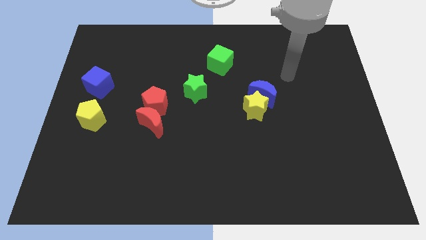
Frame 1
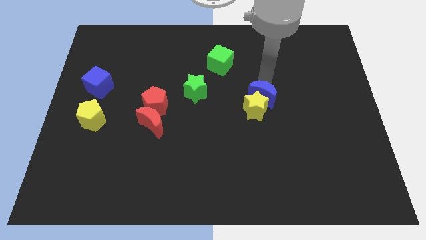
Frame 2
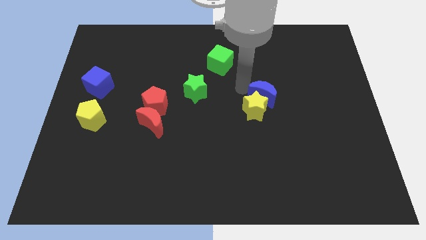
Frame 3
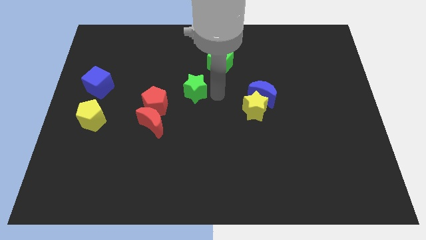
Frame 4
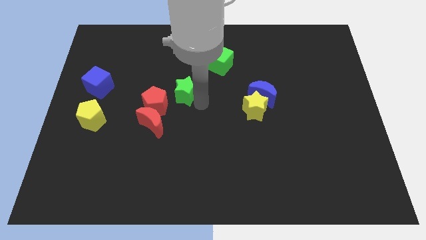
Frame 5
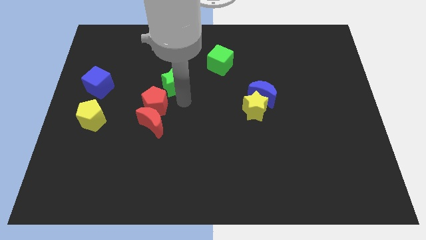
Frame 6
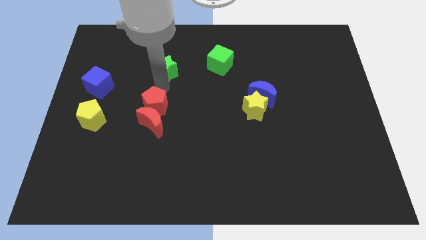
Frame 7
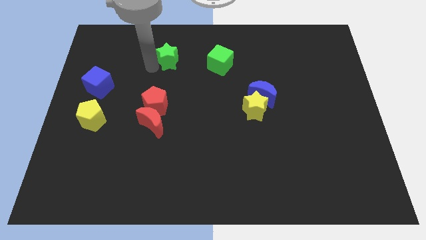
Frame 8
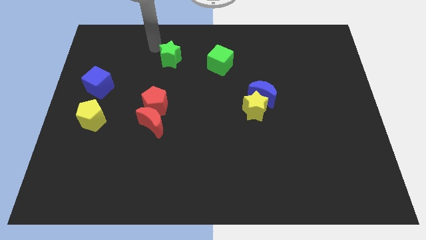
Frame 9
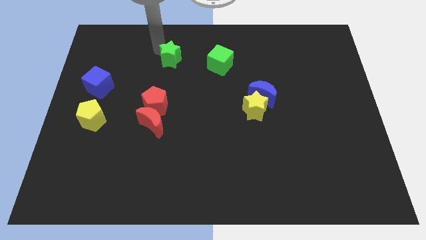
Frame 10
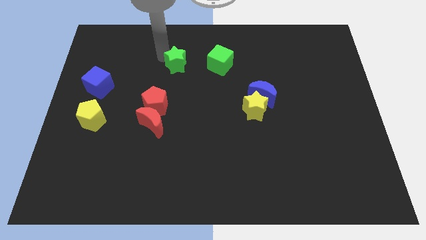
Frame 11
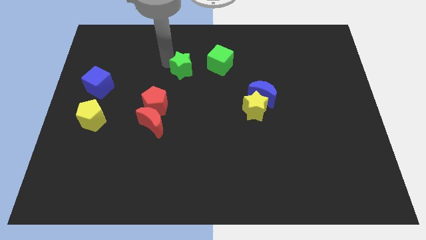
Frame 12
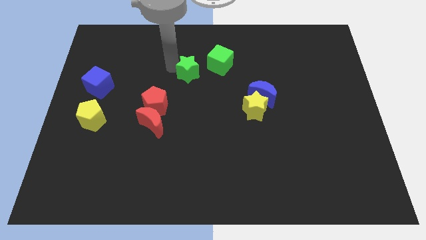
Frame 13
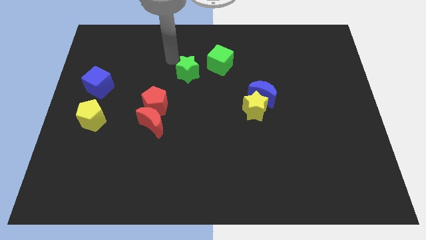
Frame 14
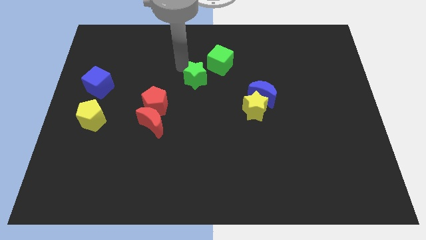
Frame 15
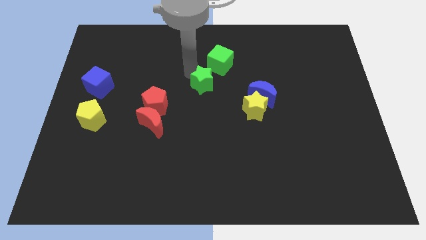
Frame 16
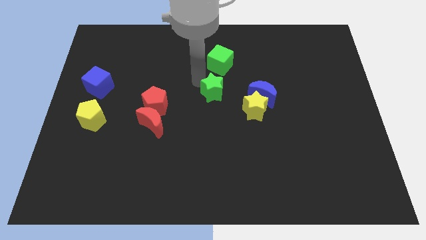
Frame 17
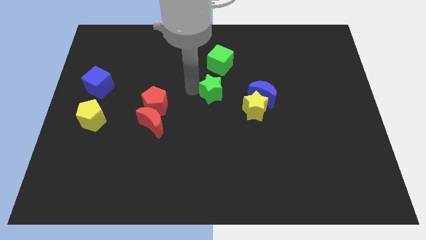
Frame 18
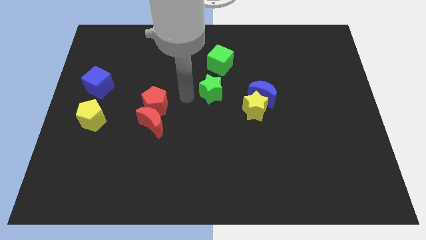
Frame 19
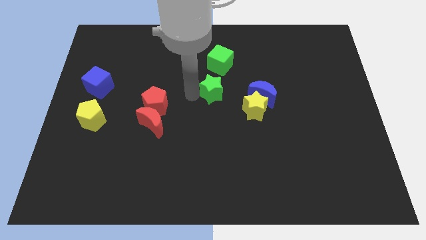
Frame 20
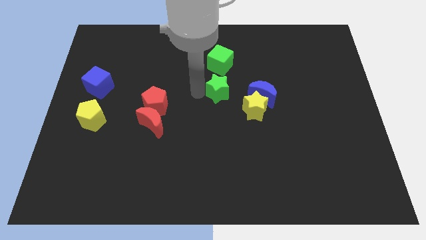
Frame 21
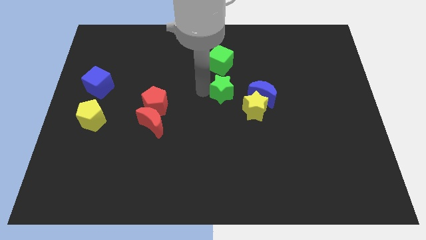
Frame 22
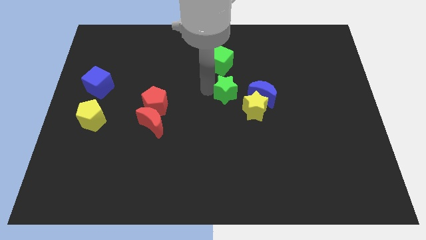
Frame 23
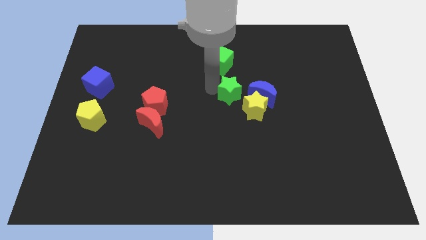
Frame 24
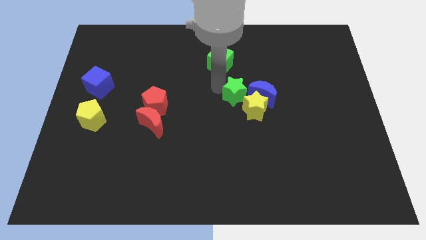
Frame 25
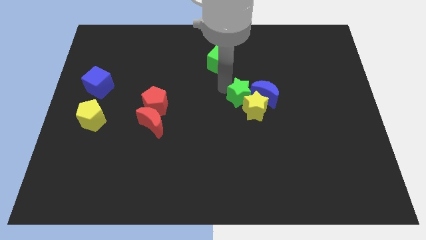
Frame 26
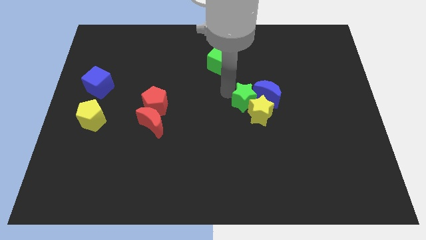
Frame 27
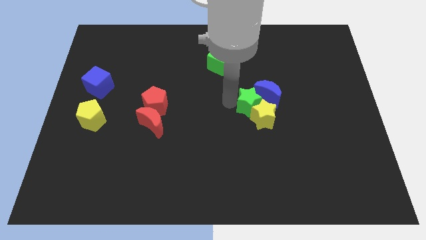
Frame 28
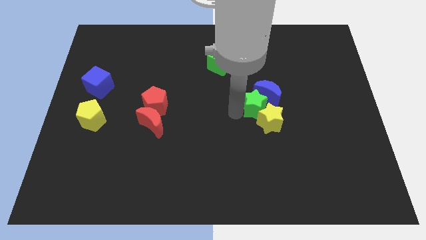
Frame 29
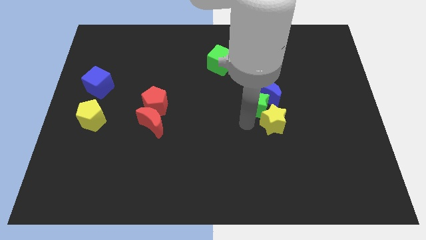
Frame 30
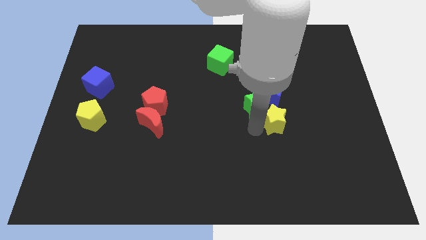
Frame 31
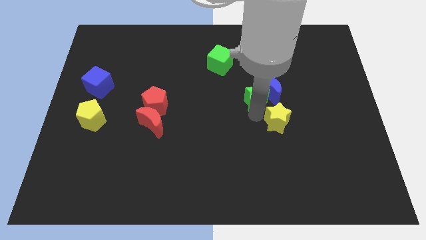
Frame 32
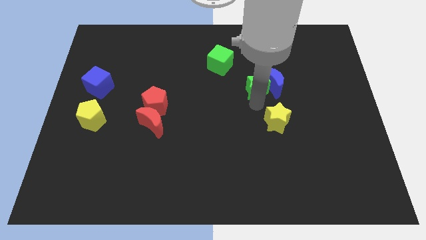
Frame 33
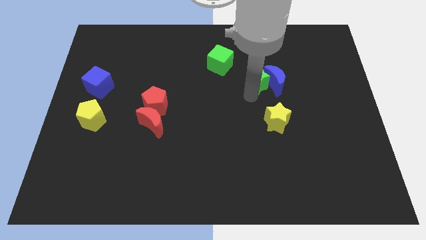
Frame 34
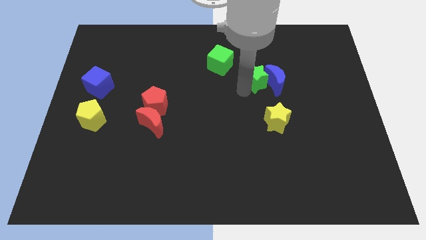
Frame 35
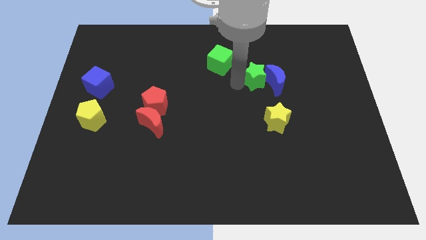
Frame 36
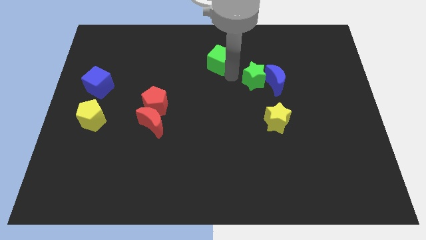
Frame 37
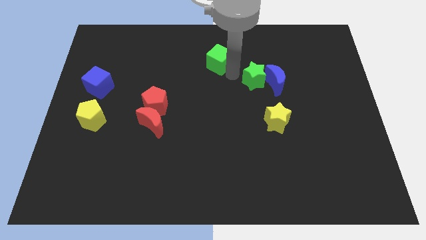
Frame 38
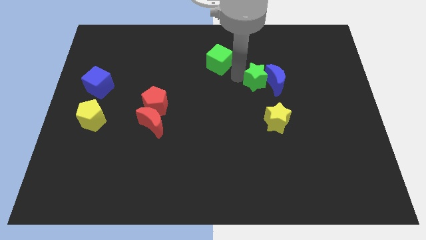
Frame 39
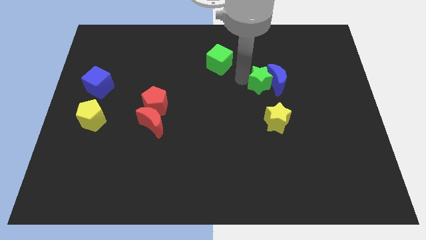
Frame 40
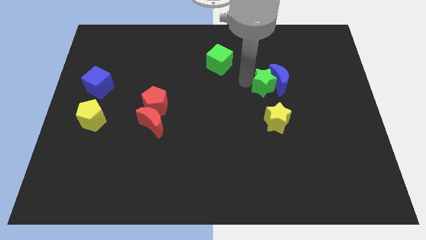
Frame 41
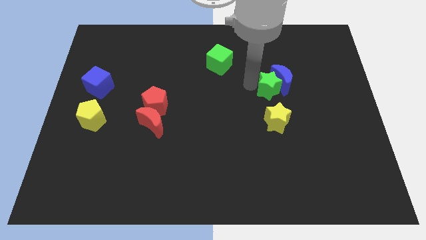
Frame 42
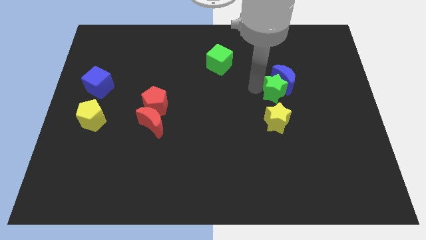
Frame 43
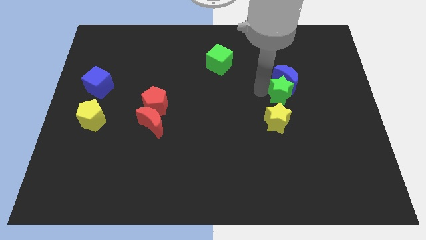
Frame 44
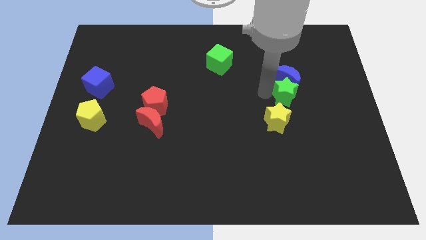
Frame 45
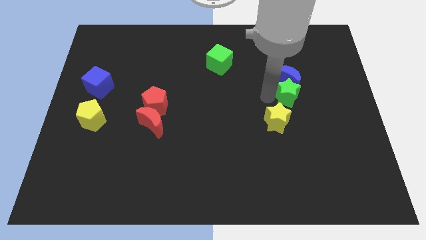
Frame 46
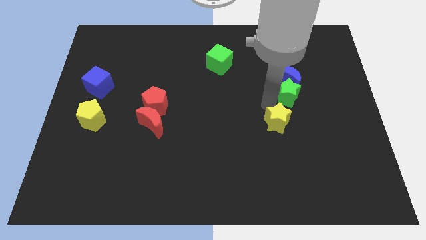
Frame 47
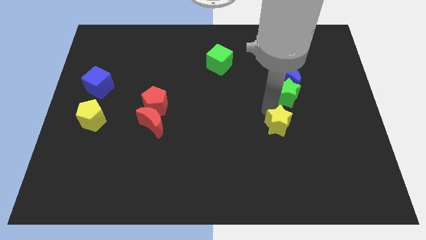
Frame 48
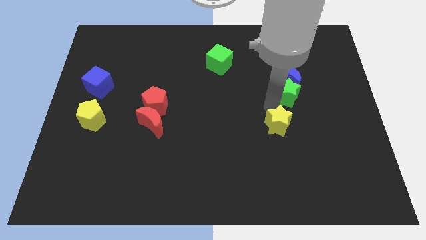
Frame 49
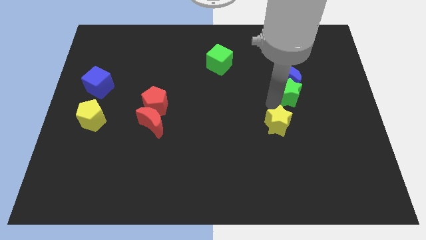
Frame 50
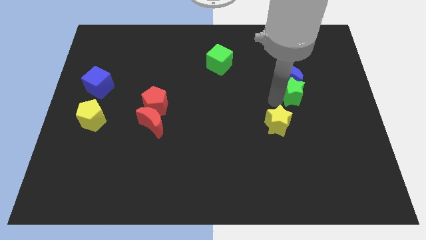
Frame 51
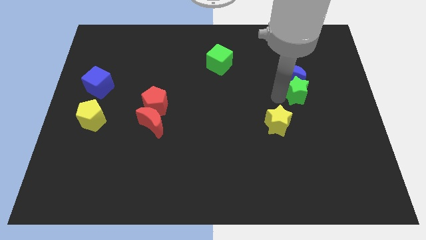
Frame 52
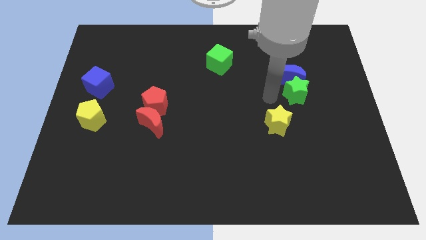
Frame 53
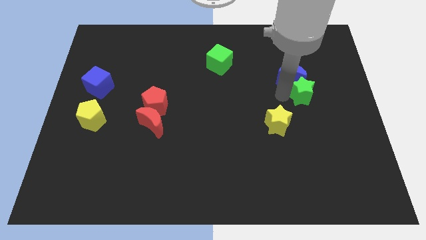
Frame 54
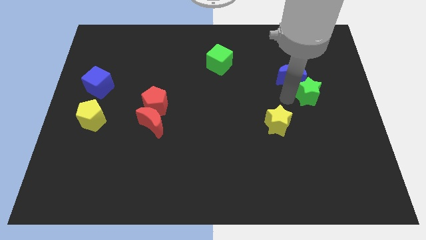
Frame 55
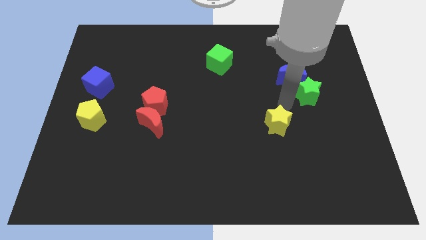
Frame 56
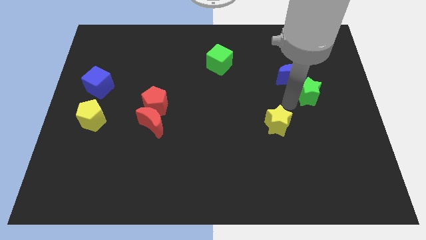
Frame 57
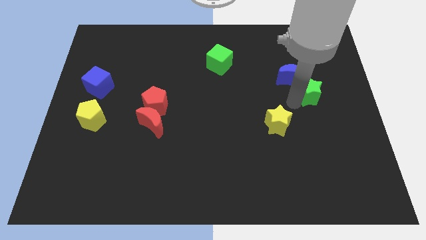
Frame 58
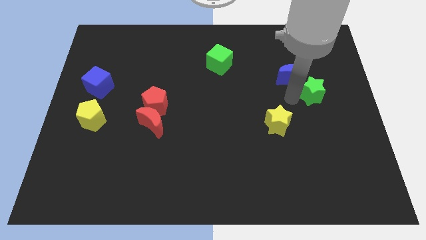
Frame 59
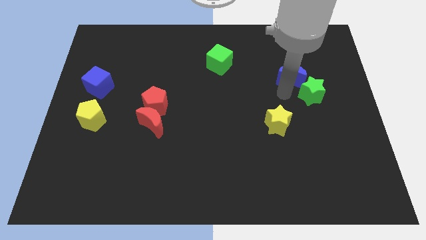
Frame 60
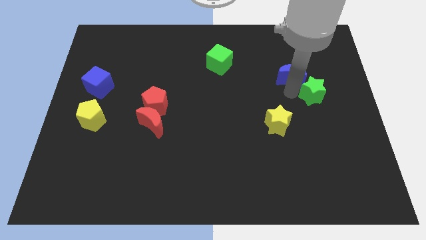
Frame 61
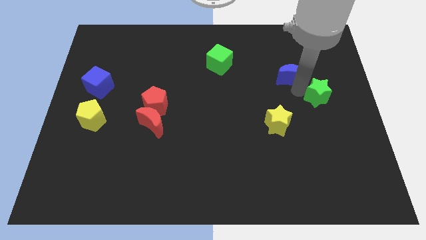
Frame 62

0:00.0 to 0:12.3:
slide the green star to the center right
